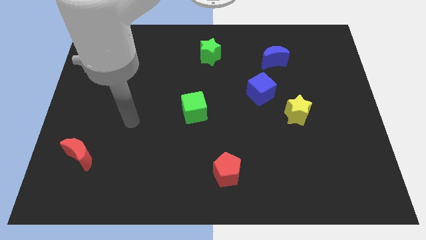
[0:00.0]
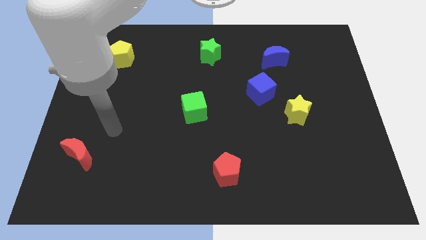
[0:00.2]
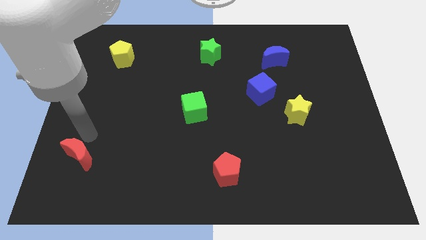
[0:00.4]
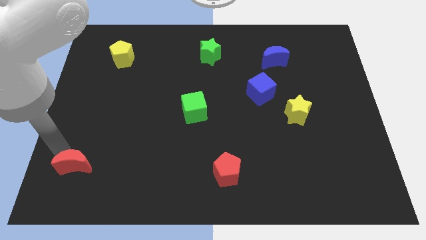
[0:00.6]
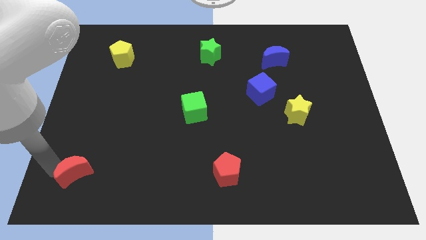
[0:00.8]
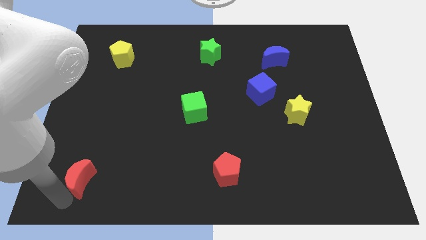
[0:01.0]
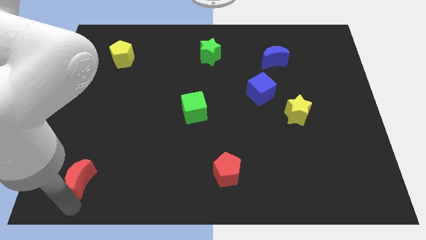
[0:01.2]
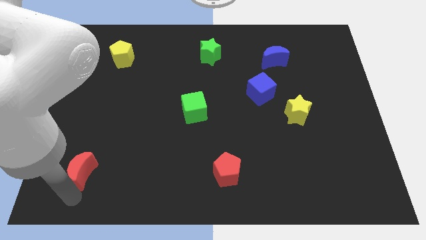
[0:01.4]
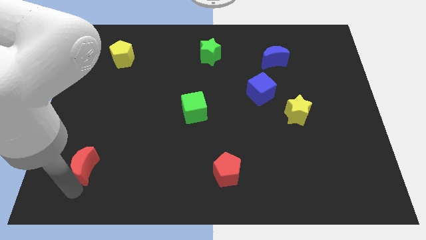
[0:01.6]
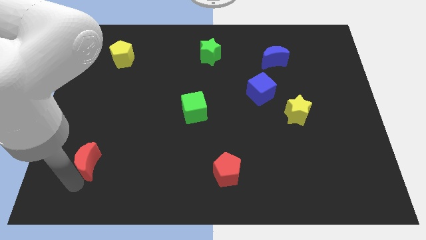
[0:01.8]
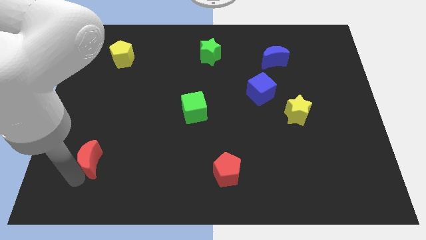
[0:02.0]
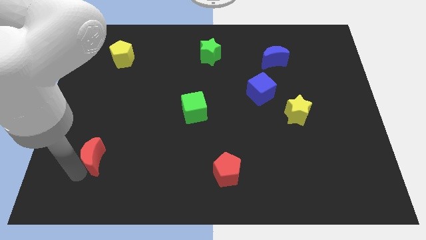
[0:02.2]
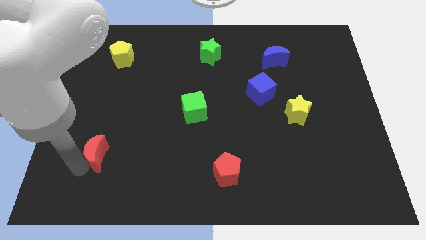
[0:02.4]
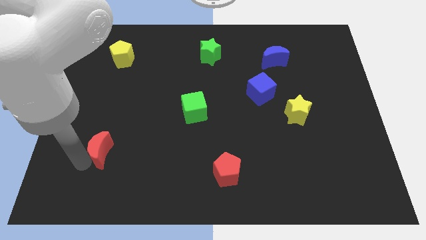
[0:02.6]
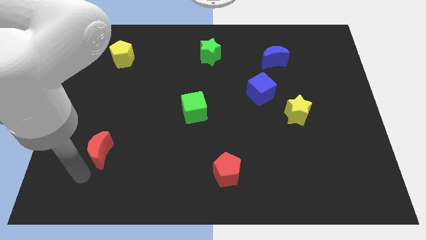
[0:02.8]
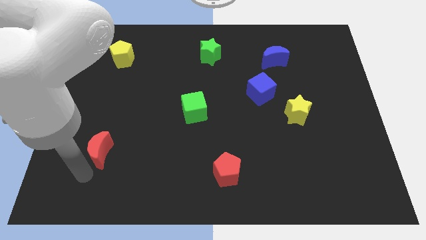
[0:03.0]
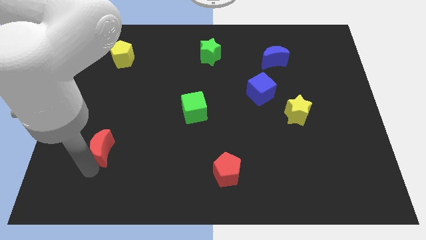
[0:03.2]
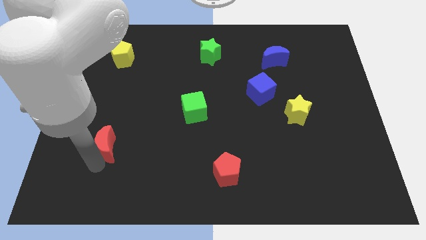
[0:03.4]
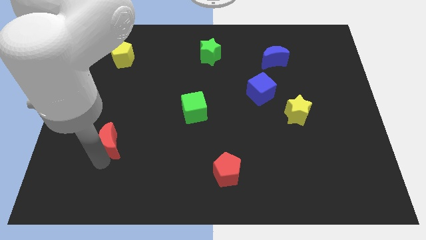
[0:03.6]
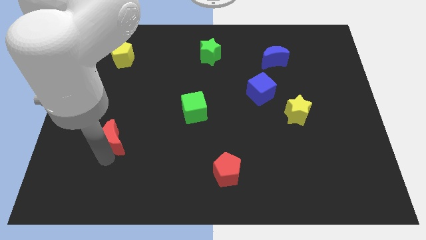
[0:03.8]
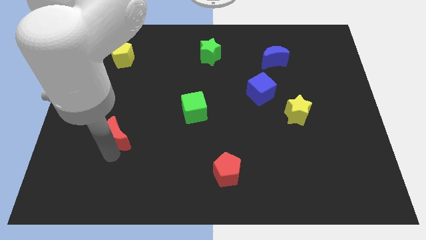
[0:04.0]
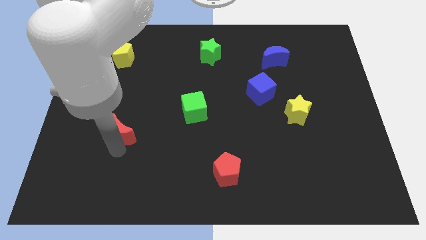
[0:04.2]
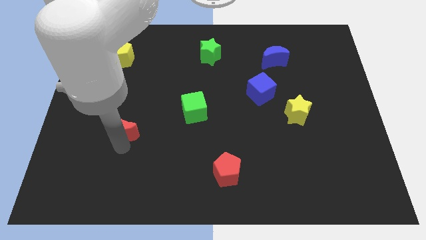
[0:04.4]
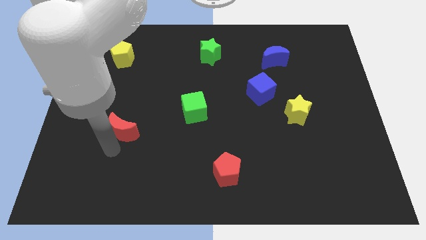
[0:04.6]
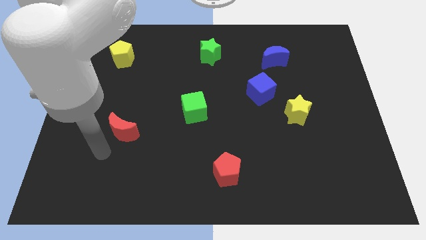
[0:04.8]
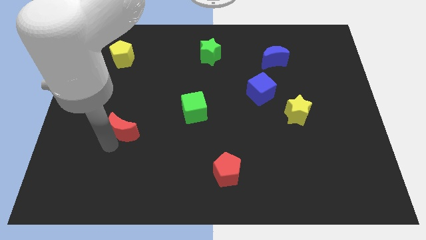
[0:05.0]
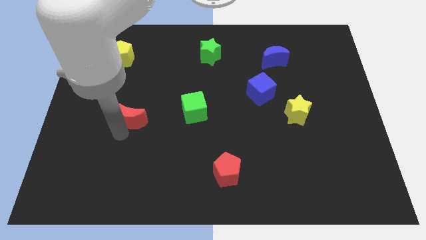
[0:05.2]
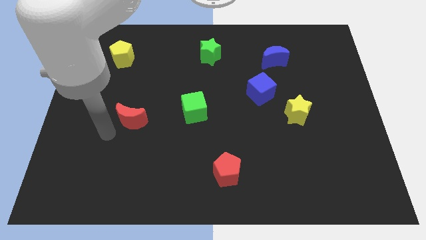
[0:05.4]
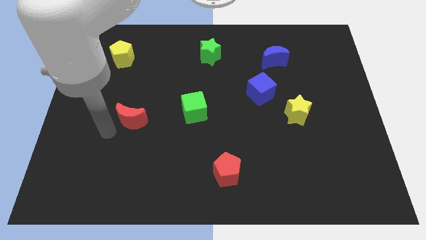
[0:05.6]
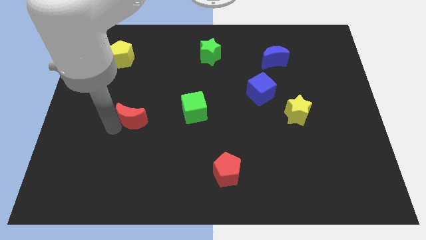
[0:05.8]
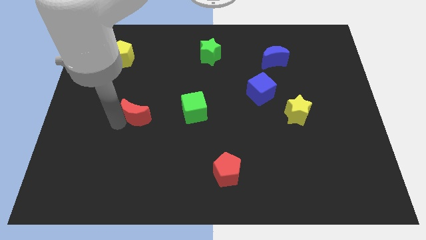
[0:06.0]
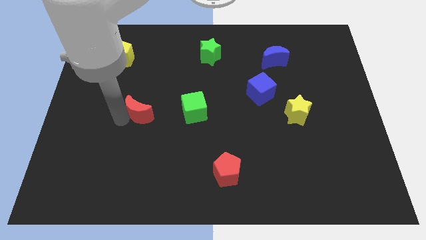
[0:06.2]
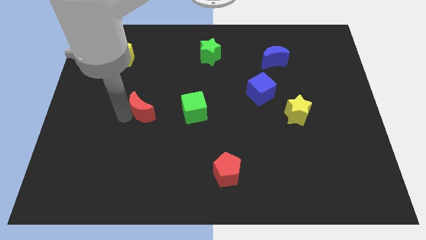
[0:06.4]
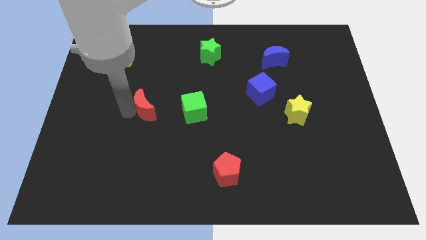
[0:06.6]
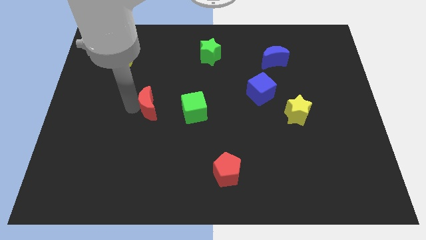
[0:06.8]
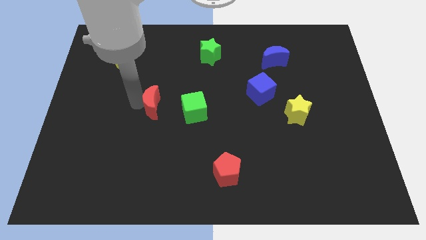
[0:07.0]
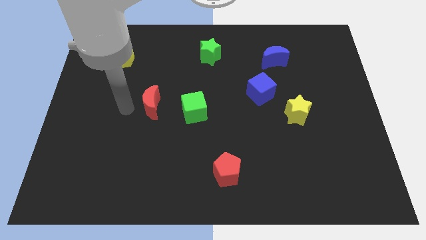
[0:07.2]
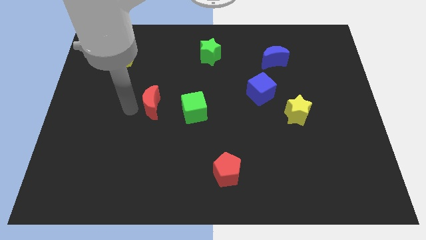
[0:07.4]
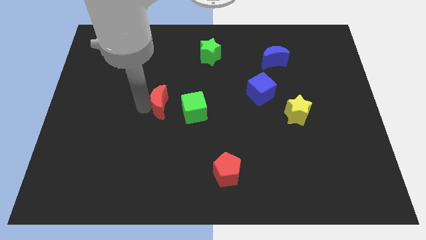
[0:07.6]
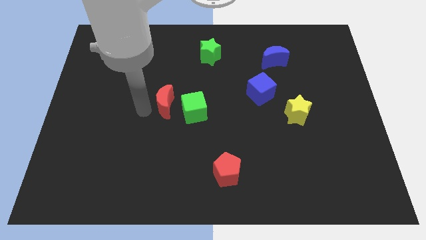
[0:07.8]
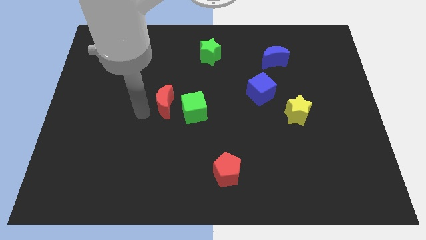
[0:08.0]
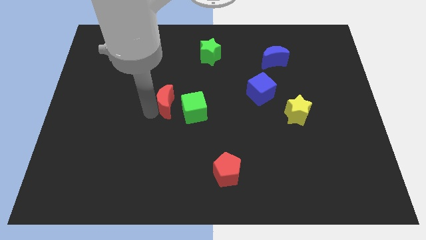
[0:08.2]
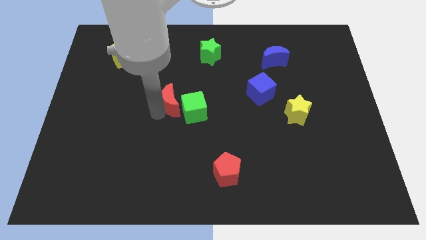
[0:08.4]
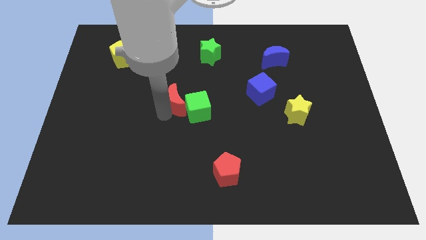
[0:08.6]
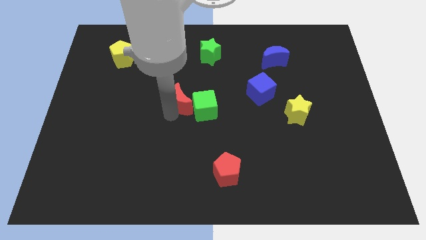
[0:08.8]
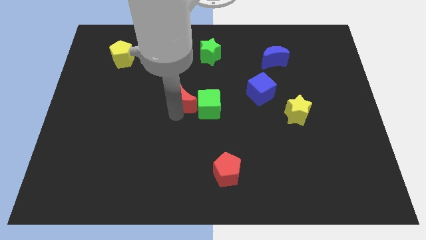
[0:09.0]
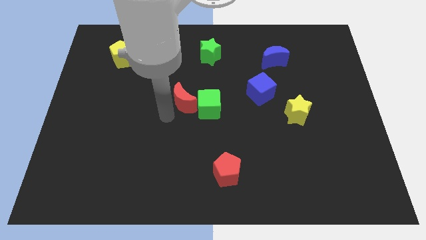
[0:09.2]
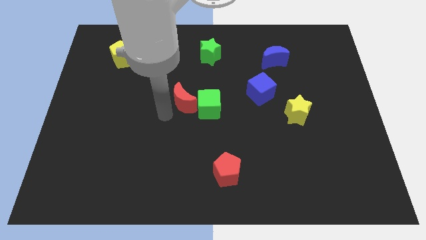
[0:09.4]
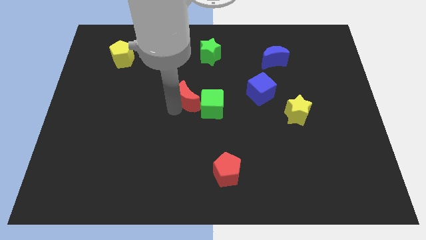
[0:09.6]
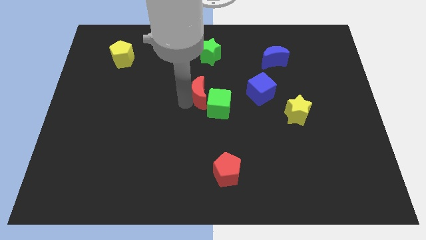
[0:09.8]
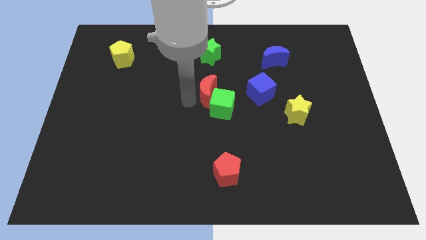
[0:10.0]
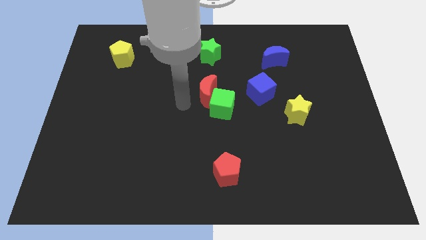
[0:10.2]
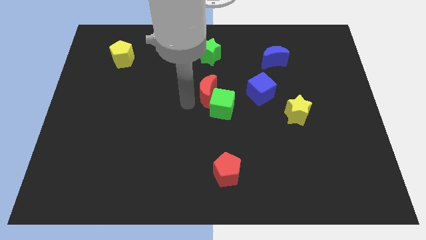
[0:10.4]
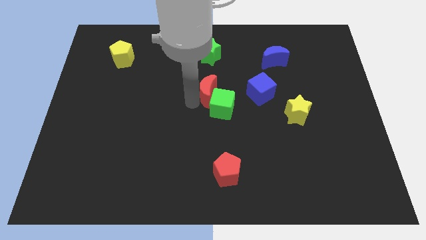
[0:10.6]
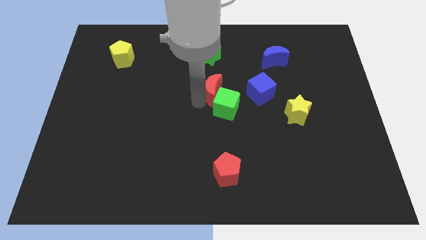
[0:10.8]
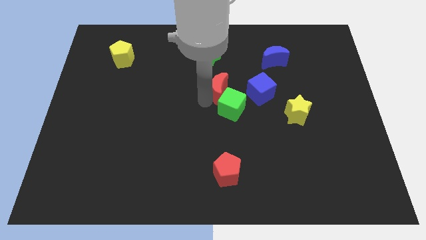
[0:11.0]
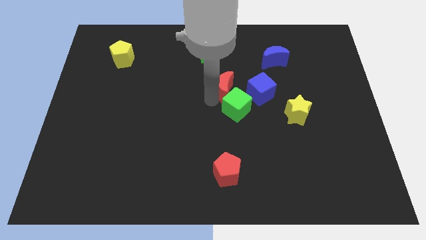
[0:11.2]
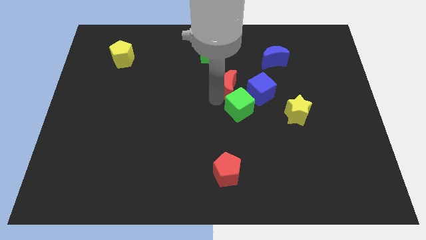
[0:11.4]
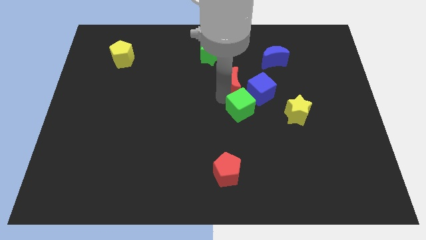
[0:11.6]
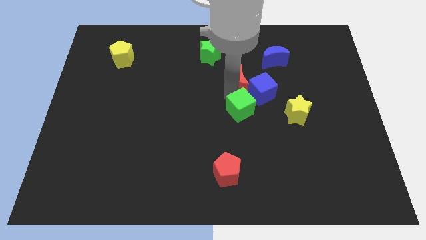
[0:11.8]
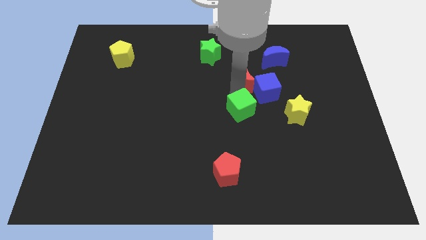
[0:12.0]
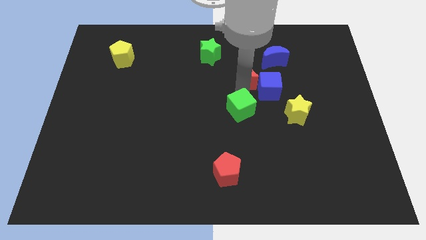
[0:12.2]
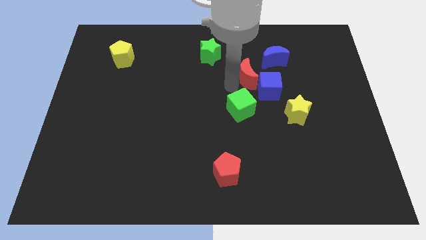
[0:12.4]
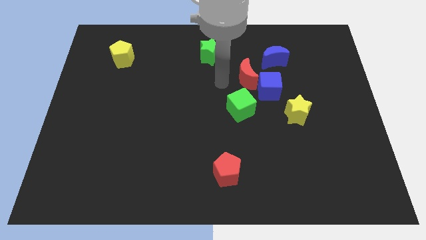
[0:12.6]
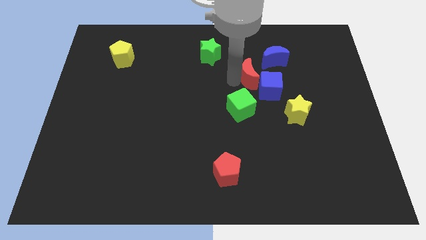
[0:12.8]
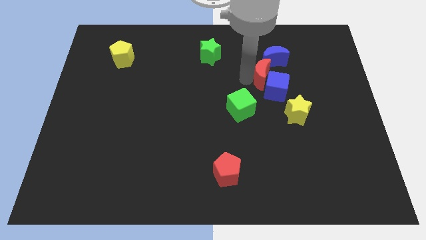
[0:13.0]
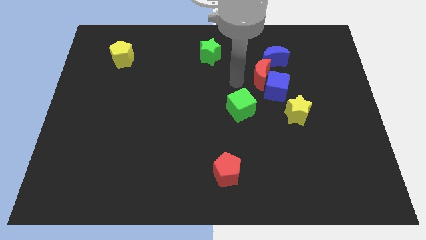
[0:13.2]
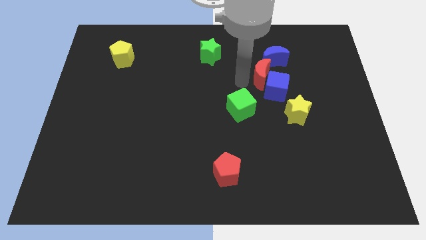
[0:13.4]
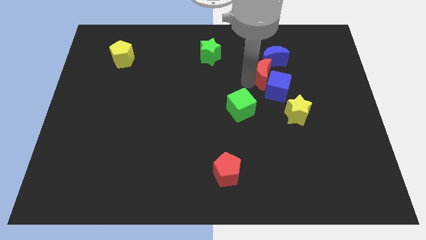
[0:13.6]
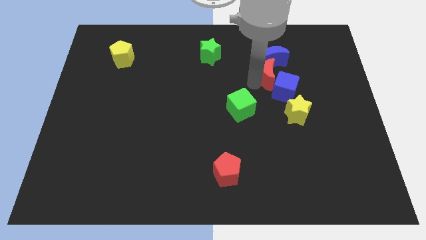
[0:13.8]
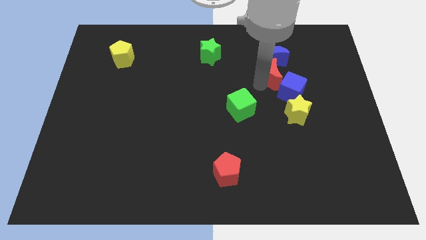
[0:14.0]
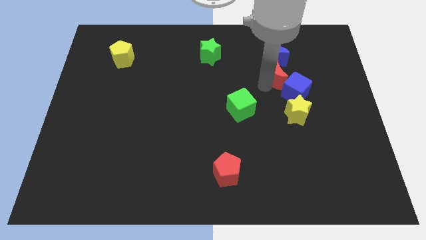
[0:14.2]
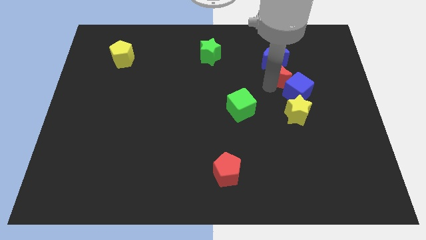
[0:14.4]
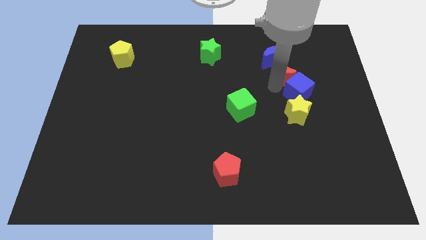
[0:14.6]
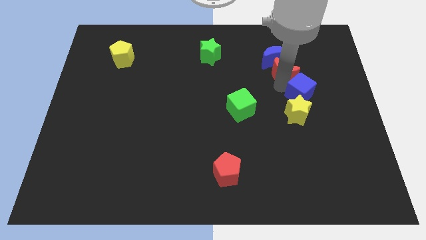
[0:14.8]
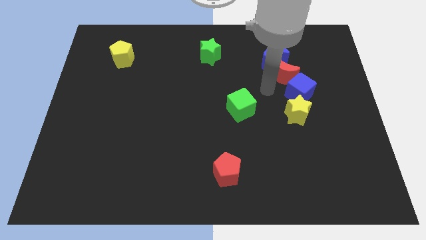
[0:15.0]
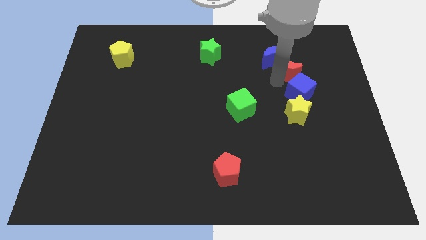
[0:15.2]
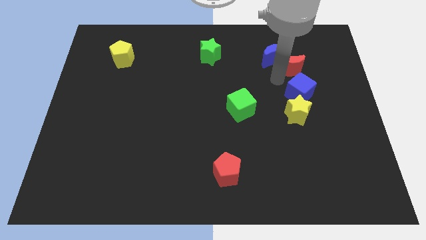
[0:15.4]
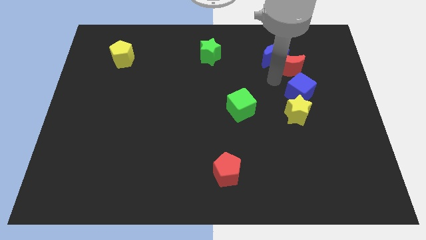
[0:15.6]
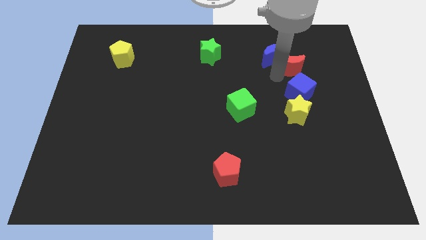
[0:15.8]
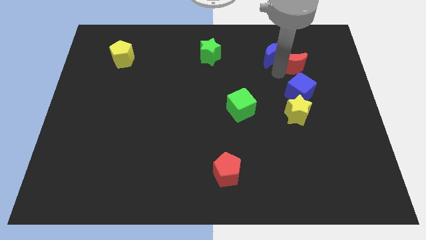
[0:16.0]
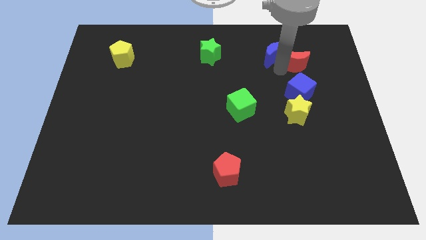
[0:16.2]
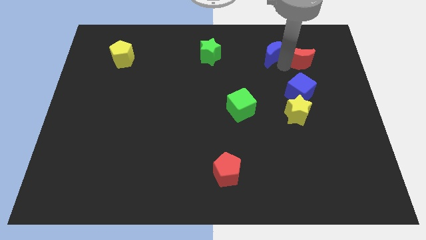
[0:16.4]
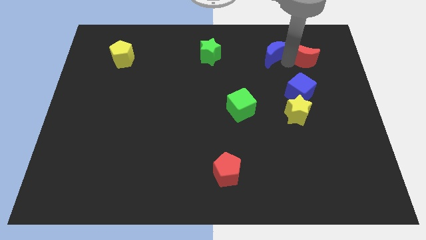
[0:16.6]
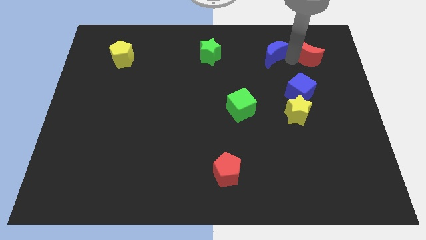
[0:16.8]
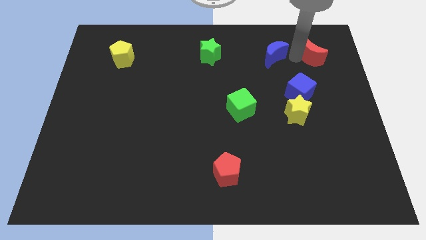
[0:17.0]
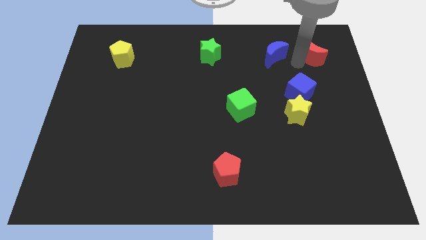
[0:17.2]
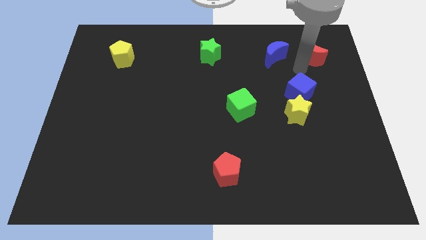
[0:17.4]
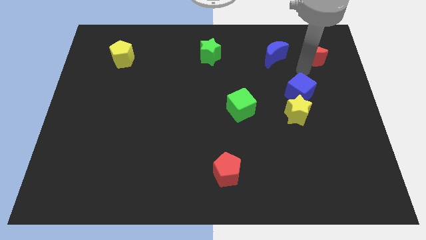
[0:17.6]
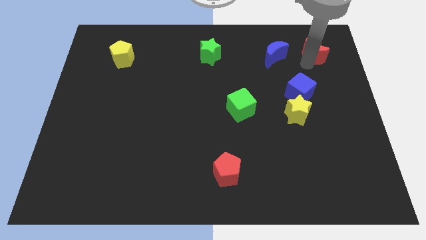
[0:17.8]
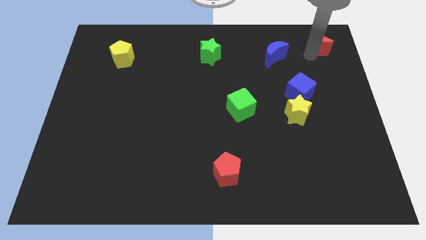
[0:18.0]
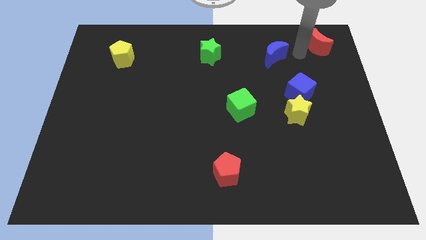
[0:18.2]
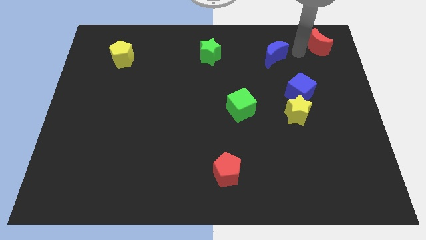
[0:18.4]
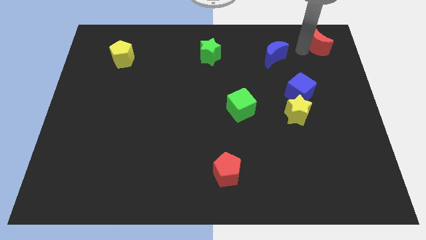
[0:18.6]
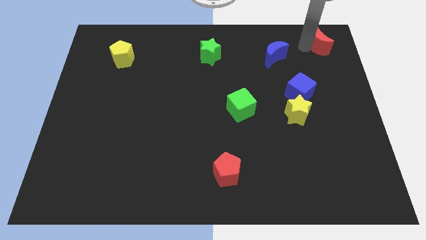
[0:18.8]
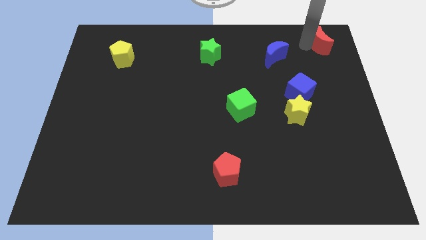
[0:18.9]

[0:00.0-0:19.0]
put the red moon to the top right
